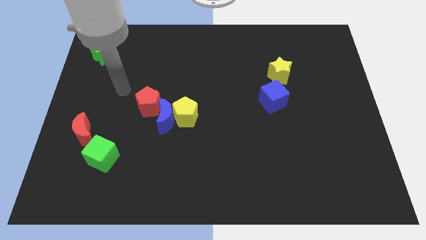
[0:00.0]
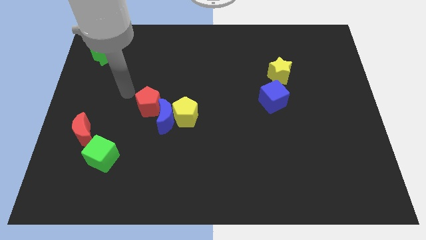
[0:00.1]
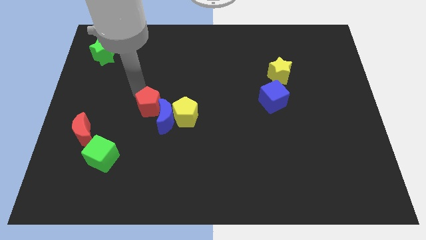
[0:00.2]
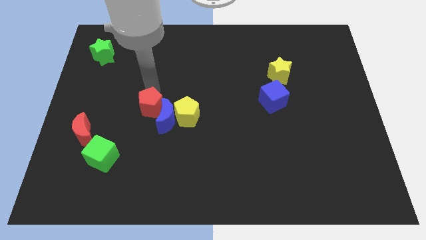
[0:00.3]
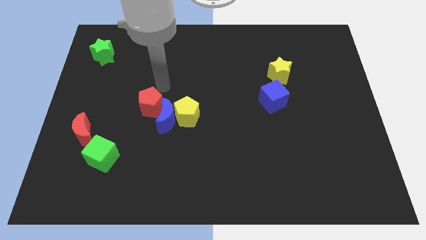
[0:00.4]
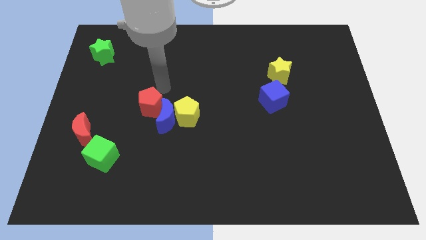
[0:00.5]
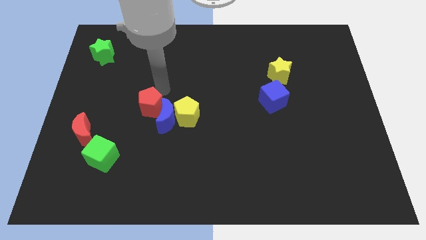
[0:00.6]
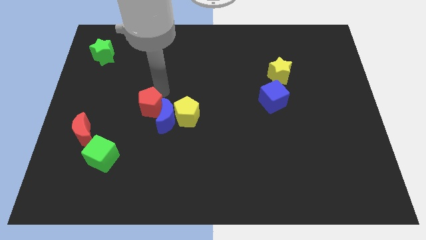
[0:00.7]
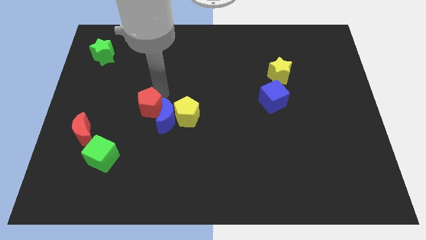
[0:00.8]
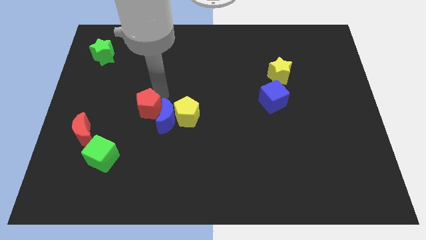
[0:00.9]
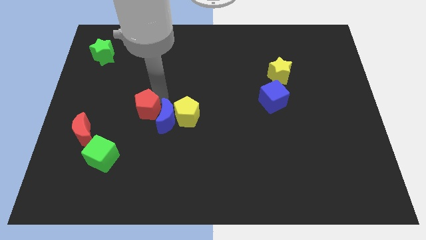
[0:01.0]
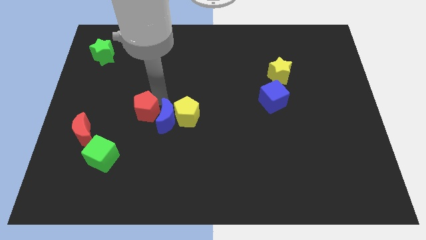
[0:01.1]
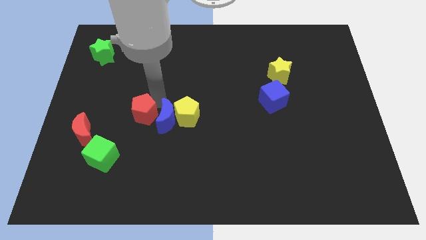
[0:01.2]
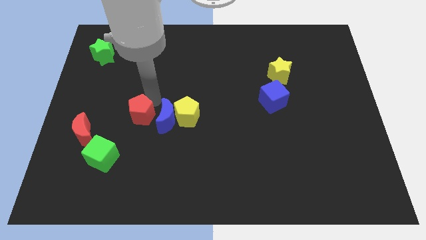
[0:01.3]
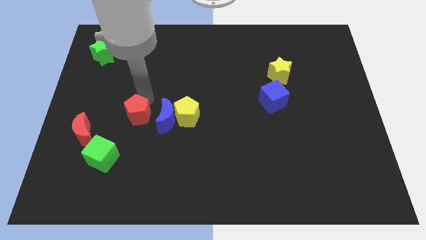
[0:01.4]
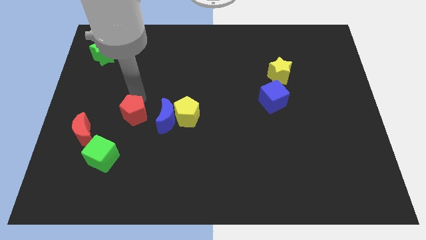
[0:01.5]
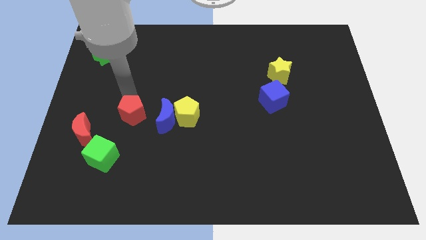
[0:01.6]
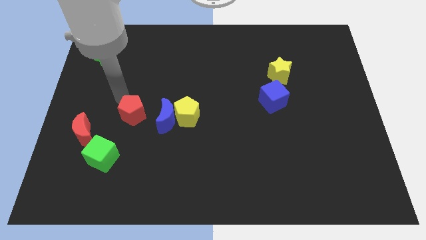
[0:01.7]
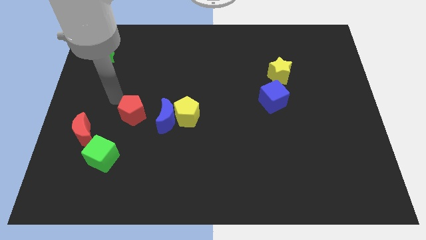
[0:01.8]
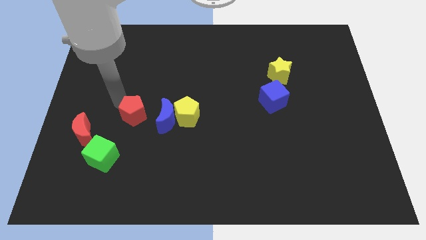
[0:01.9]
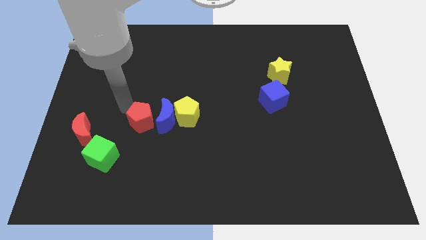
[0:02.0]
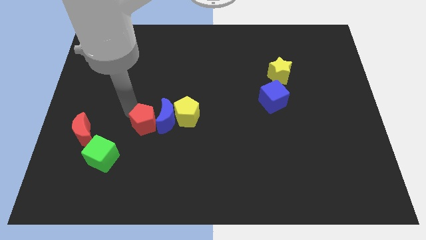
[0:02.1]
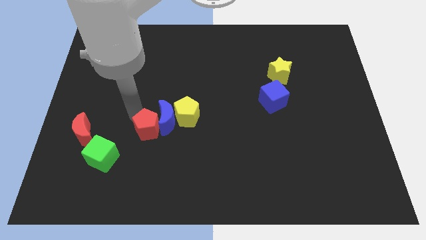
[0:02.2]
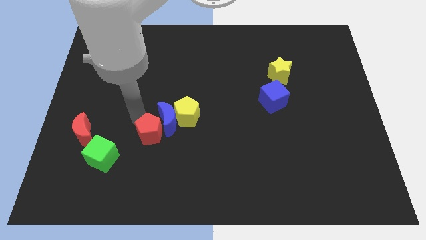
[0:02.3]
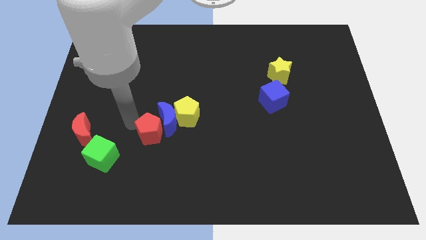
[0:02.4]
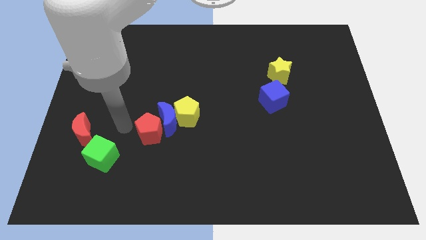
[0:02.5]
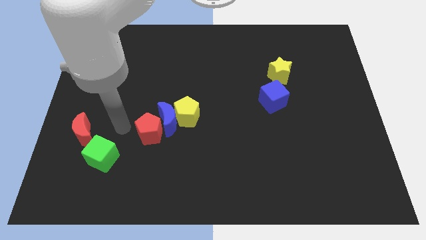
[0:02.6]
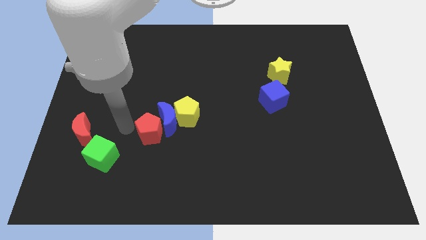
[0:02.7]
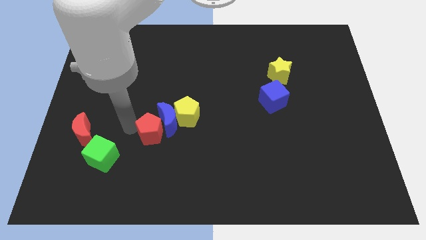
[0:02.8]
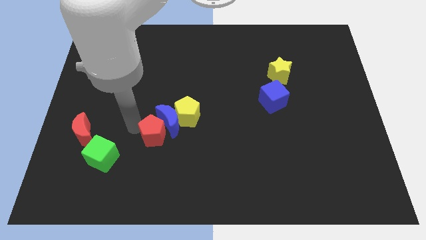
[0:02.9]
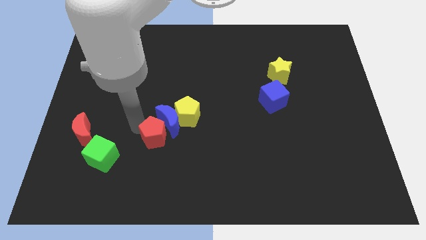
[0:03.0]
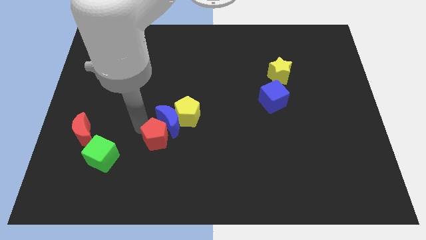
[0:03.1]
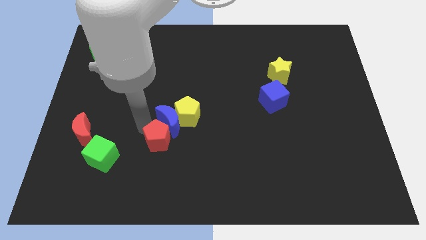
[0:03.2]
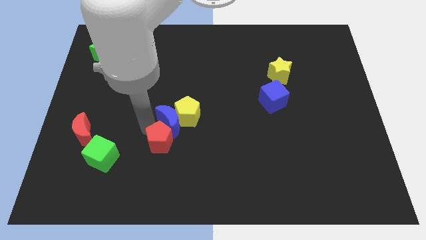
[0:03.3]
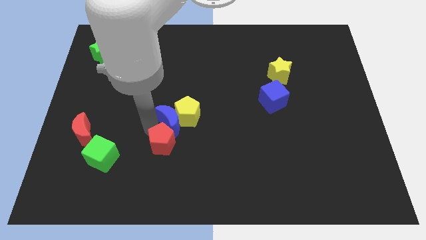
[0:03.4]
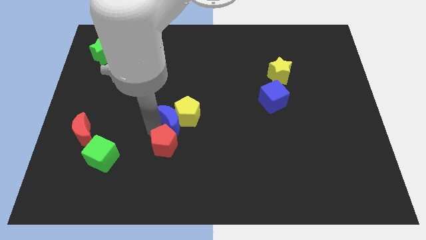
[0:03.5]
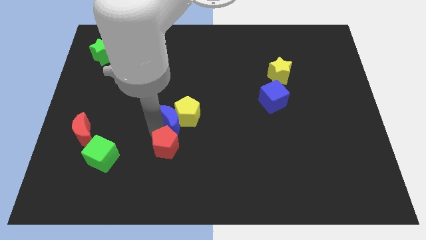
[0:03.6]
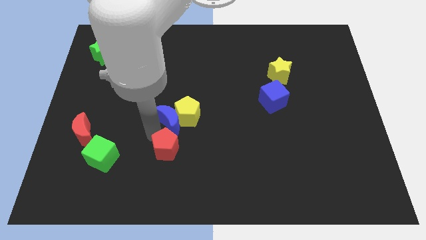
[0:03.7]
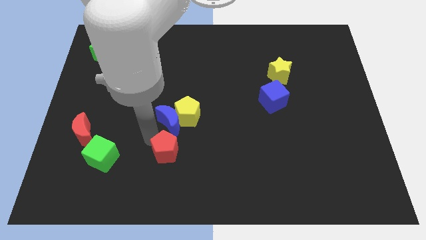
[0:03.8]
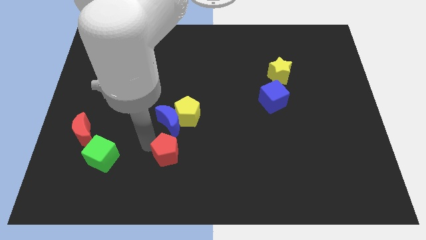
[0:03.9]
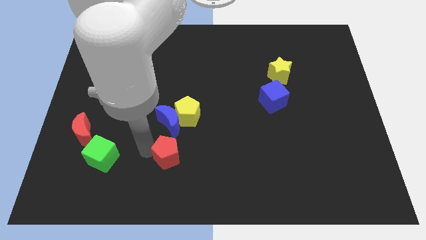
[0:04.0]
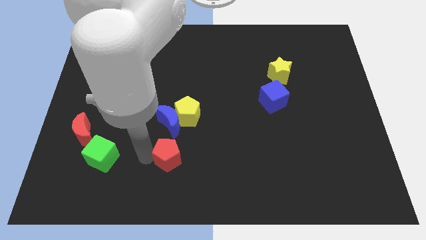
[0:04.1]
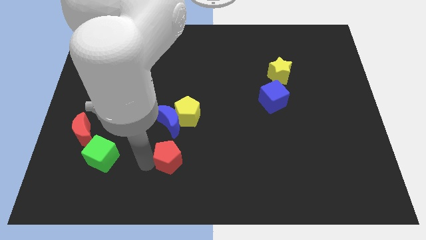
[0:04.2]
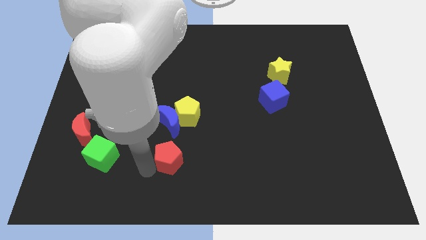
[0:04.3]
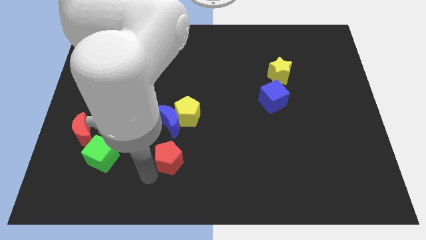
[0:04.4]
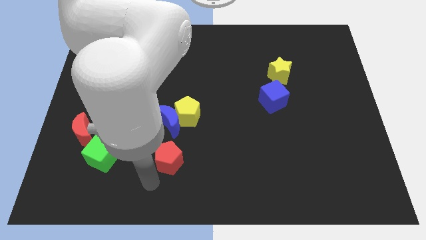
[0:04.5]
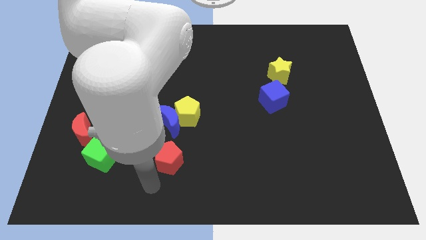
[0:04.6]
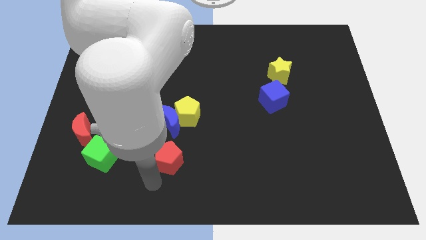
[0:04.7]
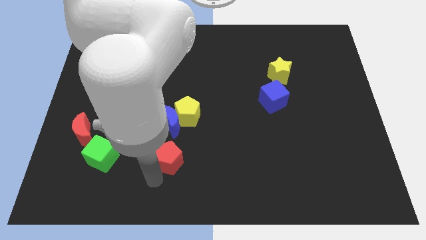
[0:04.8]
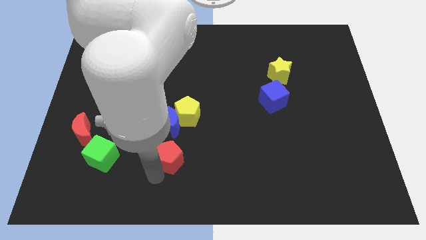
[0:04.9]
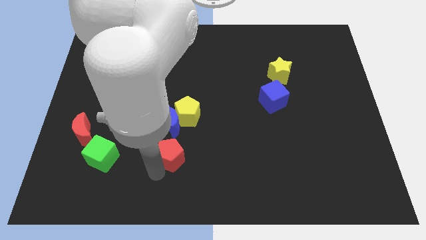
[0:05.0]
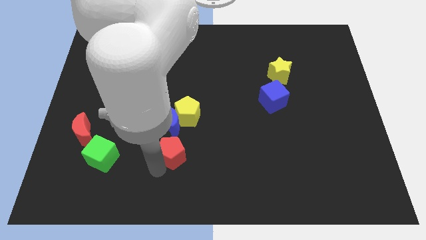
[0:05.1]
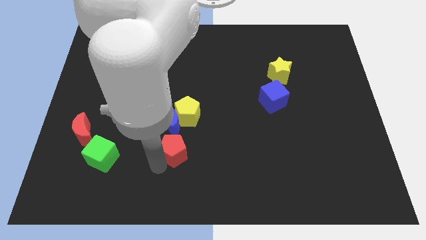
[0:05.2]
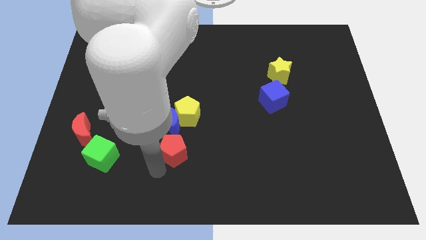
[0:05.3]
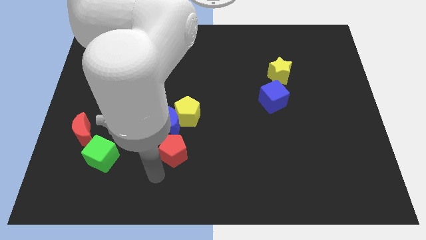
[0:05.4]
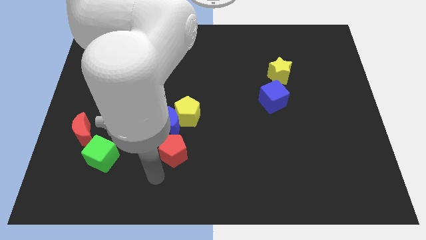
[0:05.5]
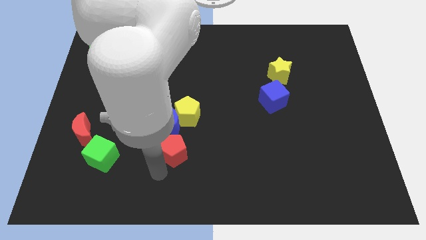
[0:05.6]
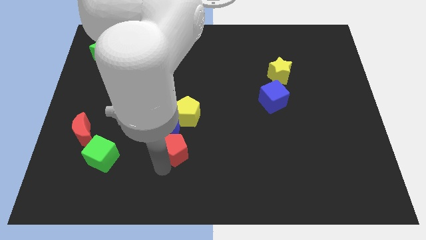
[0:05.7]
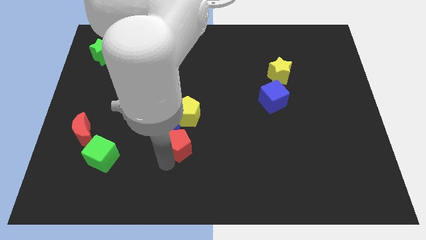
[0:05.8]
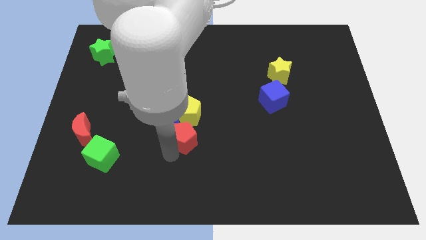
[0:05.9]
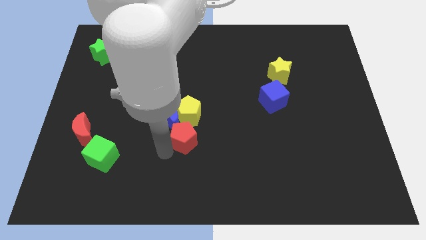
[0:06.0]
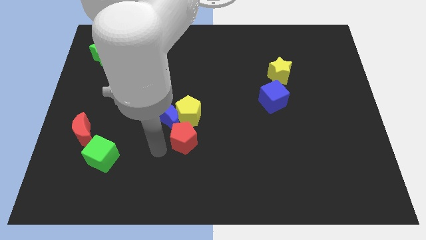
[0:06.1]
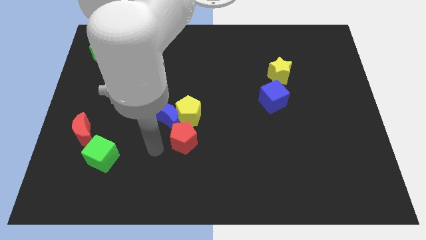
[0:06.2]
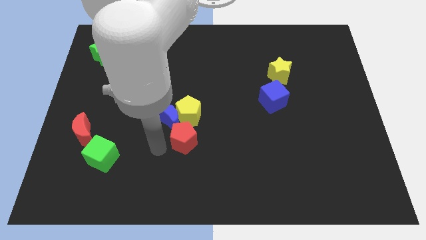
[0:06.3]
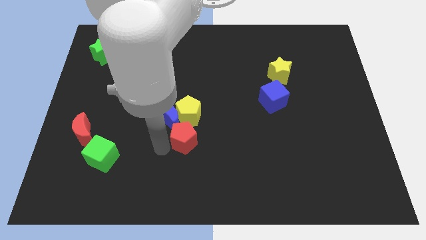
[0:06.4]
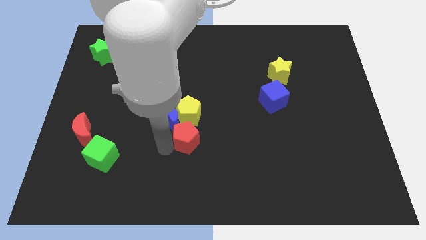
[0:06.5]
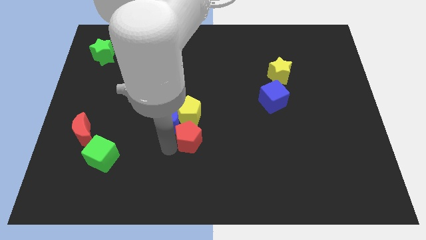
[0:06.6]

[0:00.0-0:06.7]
slide the red pentagon diagonally down and to the right of the yellow pentagon

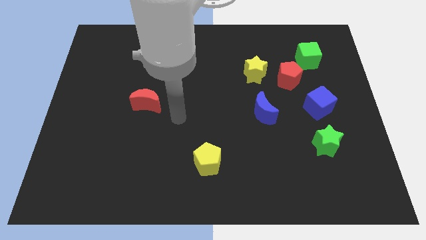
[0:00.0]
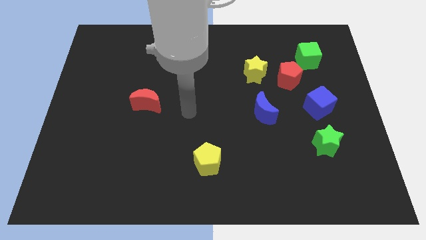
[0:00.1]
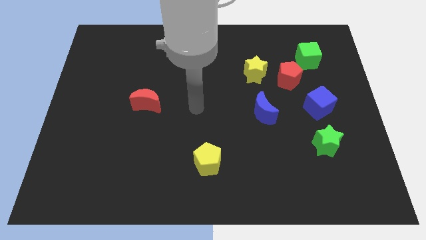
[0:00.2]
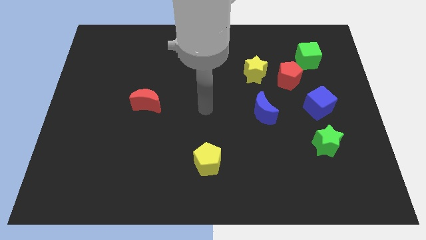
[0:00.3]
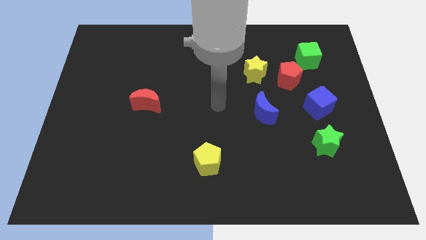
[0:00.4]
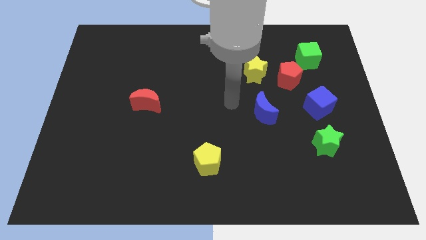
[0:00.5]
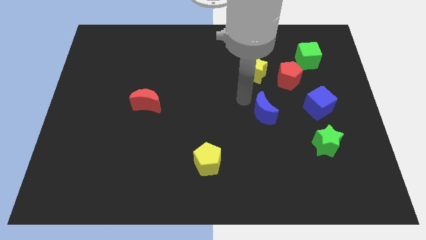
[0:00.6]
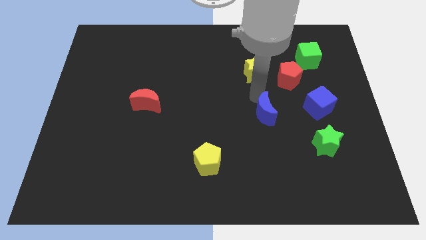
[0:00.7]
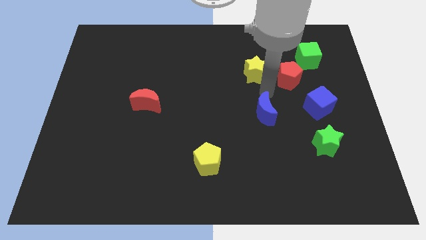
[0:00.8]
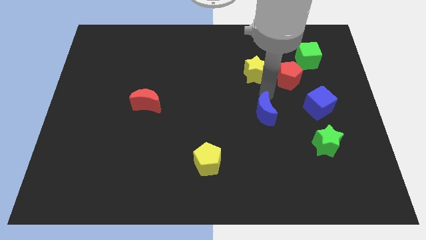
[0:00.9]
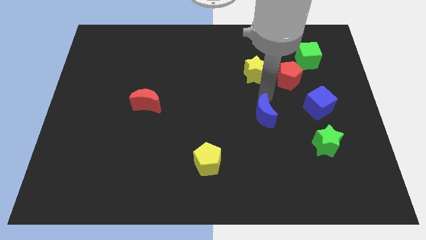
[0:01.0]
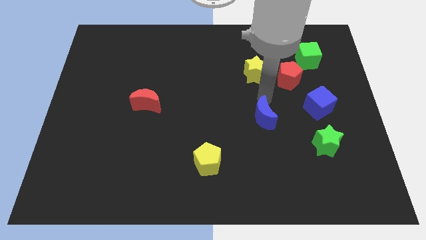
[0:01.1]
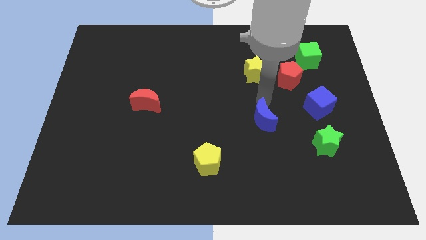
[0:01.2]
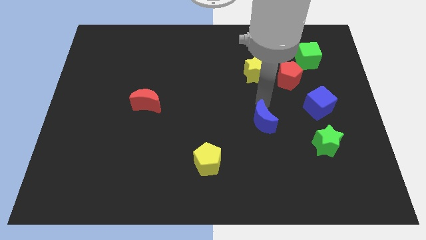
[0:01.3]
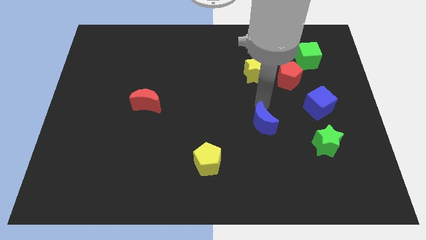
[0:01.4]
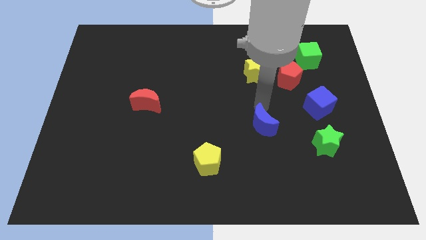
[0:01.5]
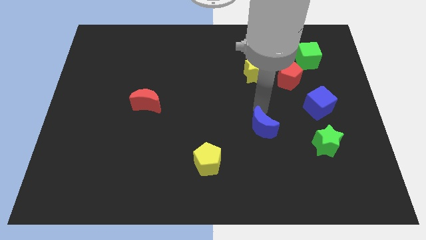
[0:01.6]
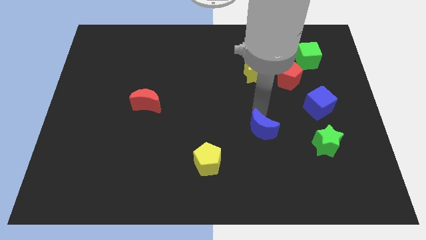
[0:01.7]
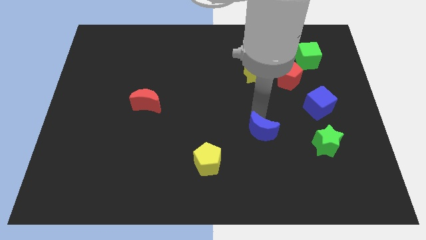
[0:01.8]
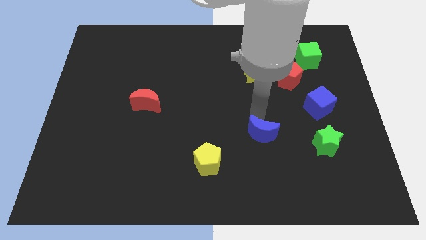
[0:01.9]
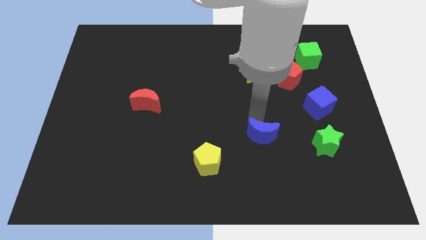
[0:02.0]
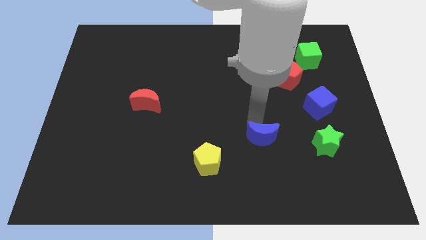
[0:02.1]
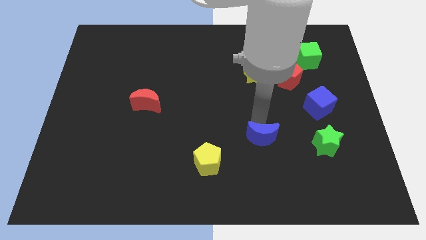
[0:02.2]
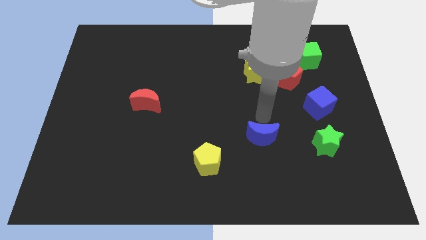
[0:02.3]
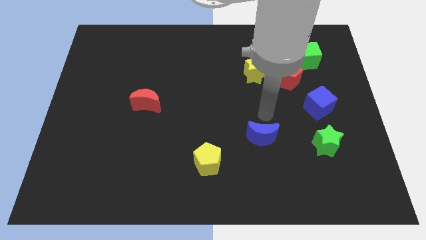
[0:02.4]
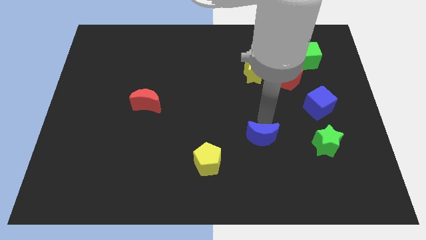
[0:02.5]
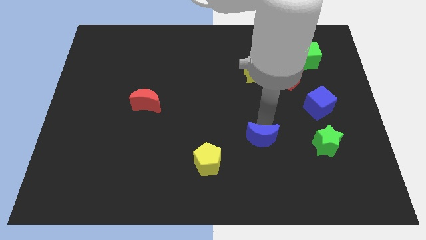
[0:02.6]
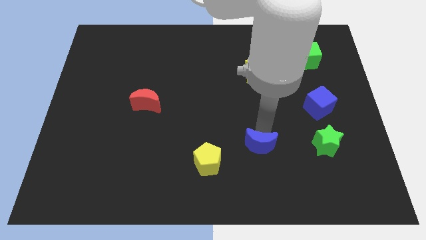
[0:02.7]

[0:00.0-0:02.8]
push the blue moon just right of the yellow pentagon
